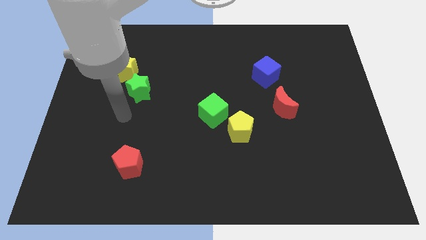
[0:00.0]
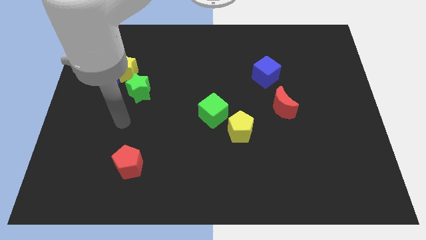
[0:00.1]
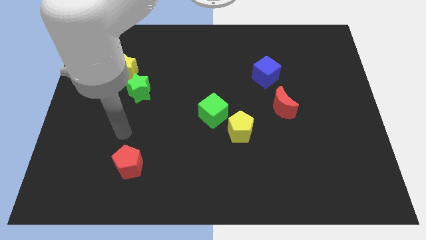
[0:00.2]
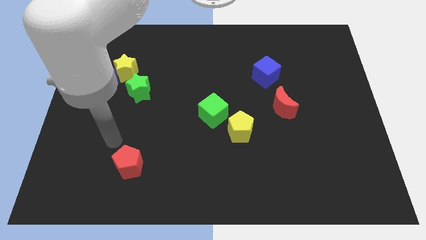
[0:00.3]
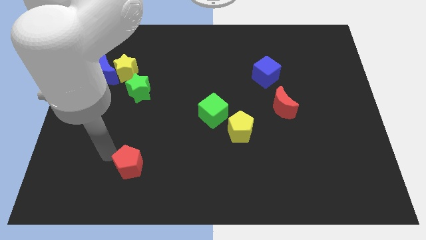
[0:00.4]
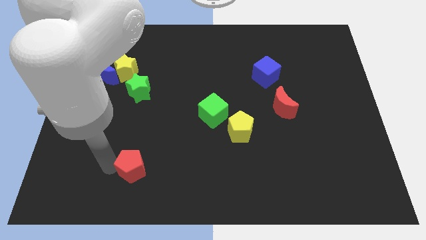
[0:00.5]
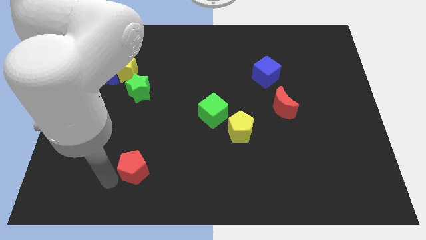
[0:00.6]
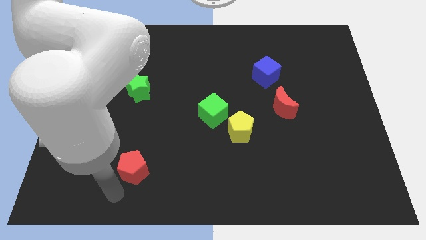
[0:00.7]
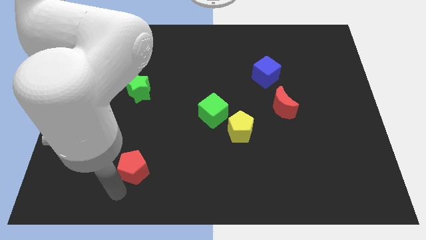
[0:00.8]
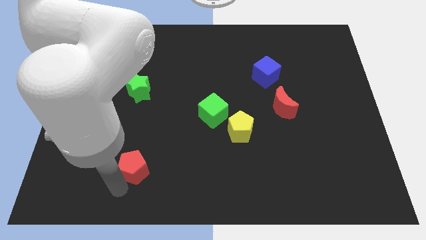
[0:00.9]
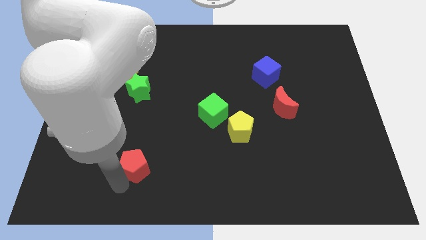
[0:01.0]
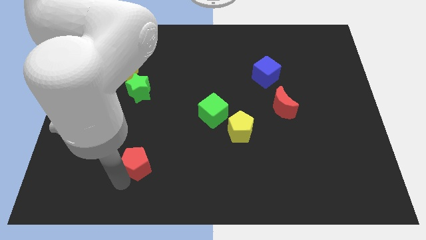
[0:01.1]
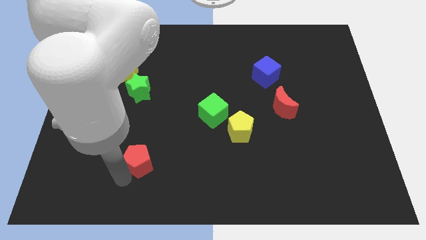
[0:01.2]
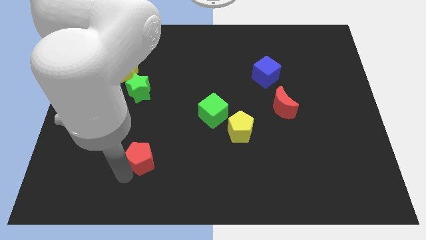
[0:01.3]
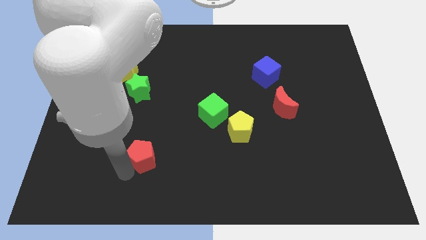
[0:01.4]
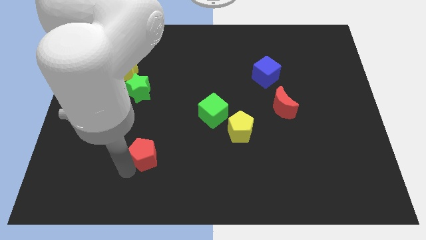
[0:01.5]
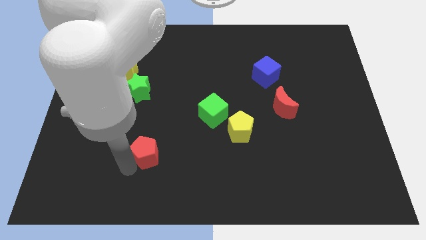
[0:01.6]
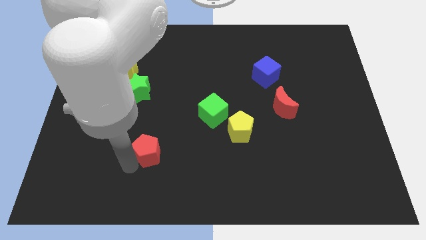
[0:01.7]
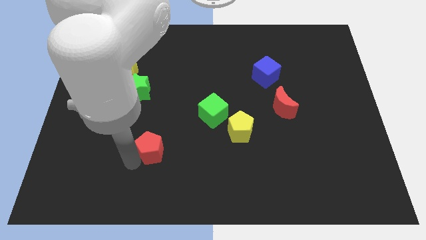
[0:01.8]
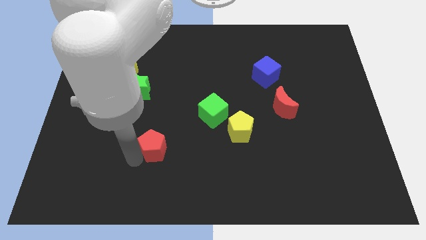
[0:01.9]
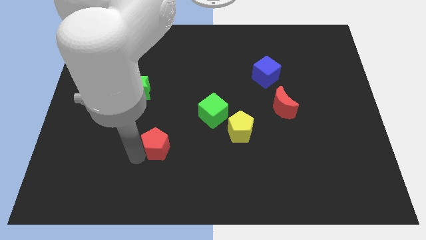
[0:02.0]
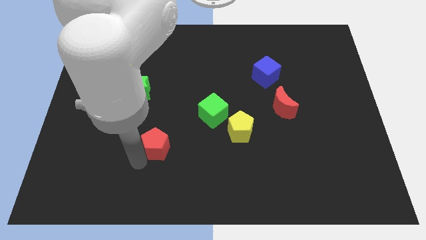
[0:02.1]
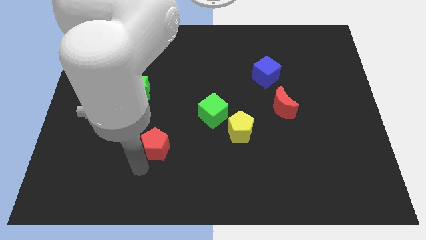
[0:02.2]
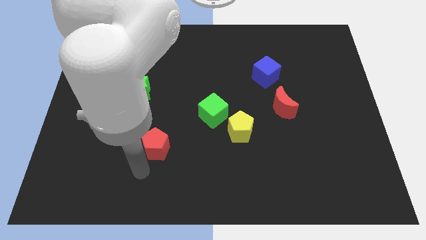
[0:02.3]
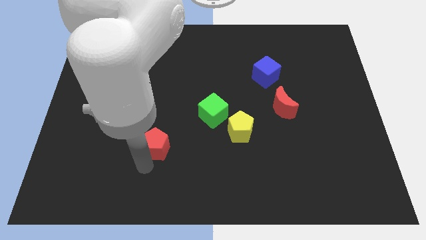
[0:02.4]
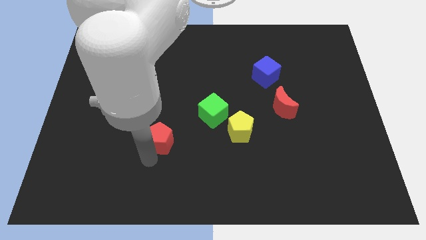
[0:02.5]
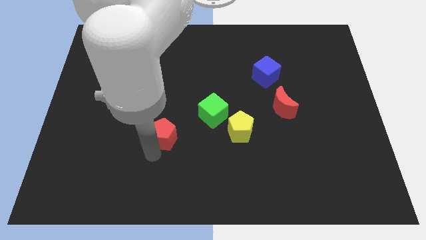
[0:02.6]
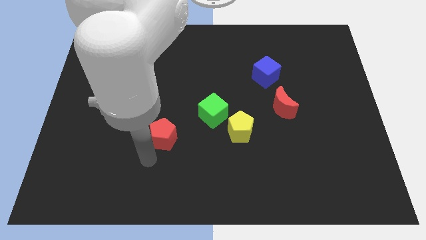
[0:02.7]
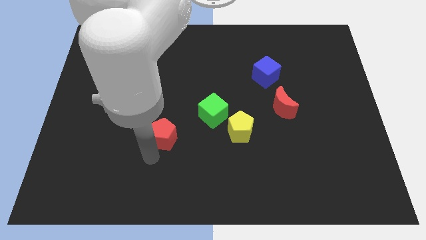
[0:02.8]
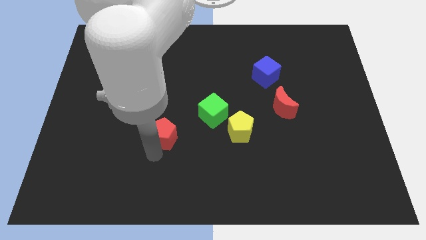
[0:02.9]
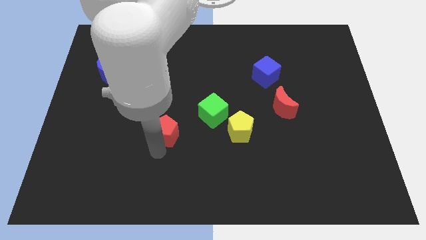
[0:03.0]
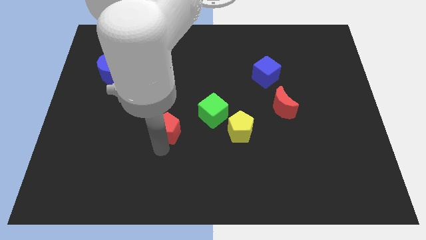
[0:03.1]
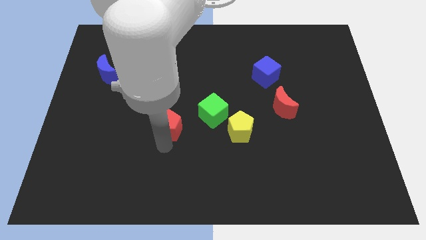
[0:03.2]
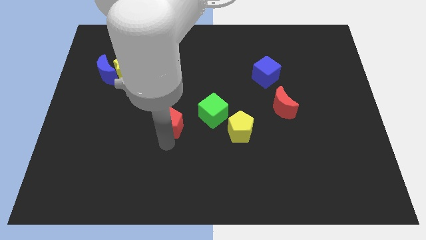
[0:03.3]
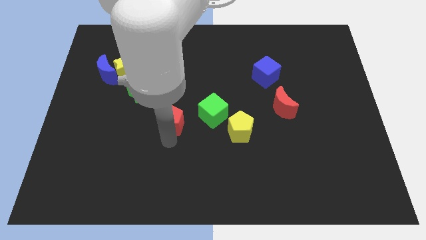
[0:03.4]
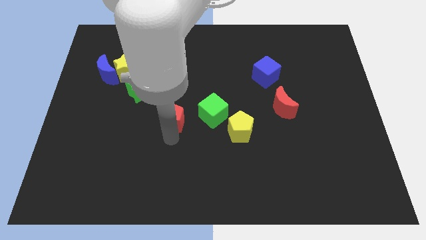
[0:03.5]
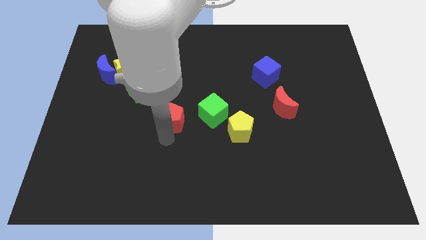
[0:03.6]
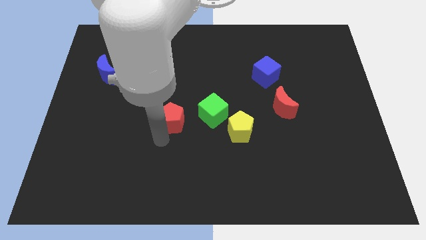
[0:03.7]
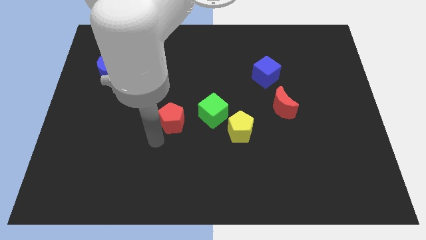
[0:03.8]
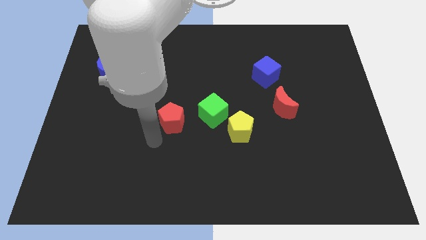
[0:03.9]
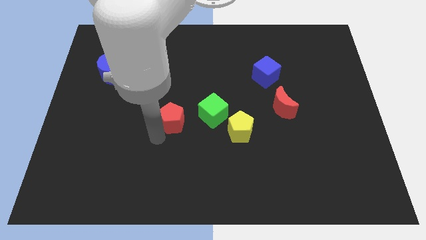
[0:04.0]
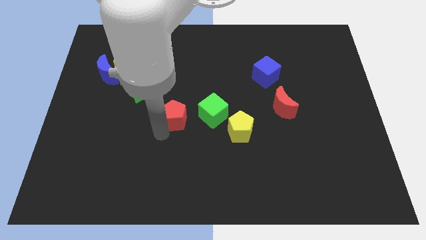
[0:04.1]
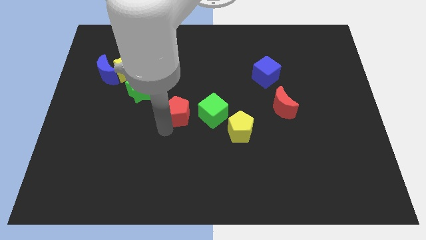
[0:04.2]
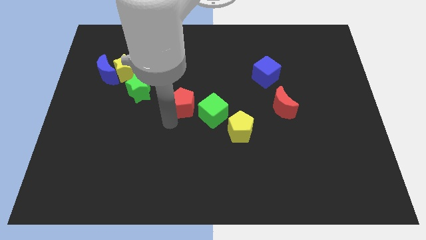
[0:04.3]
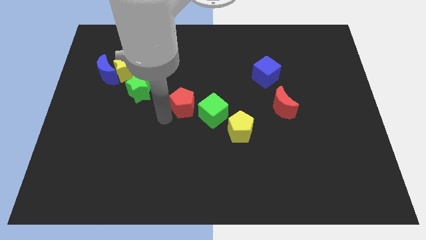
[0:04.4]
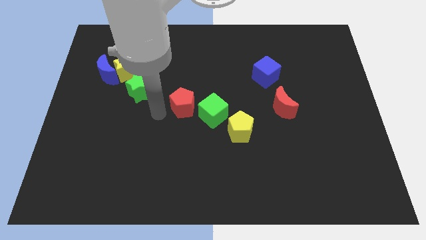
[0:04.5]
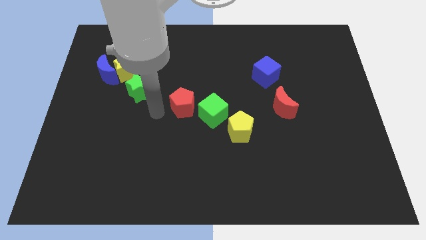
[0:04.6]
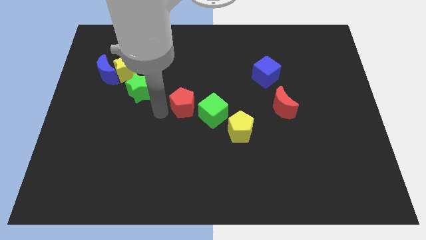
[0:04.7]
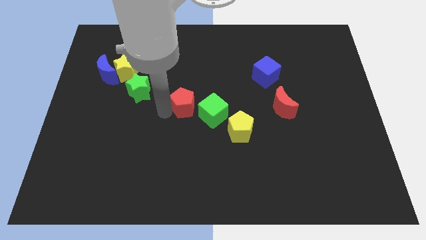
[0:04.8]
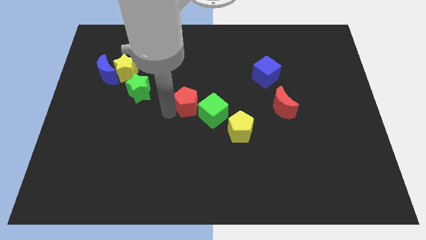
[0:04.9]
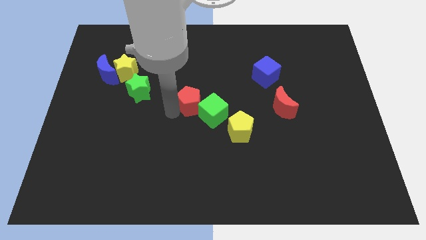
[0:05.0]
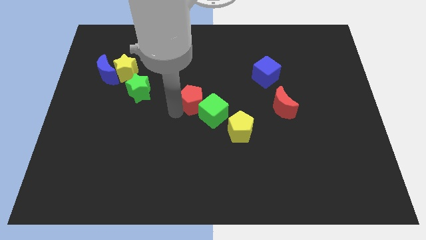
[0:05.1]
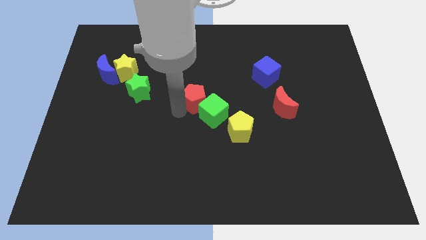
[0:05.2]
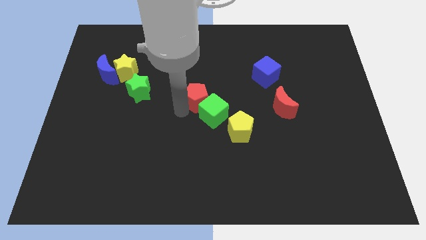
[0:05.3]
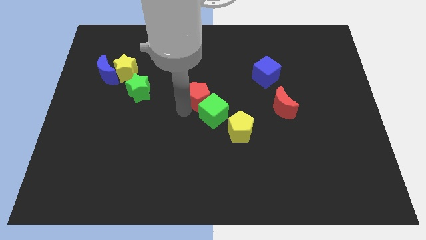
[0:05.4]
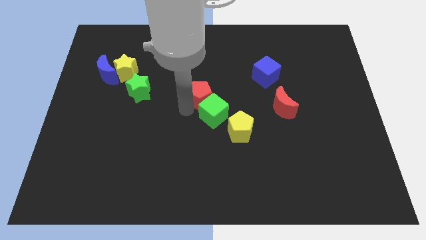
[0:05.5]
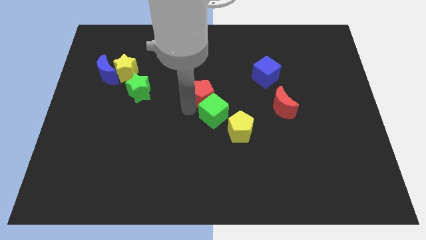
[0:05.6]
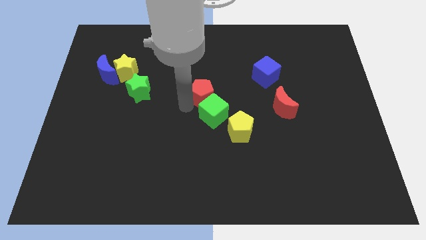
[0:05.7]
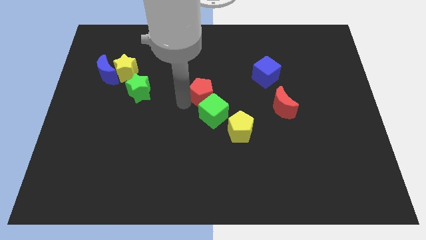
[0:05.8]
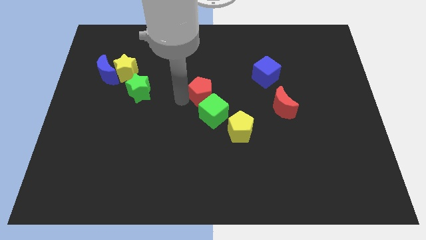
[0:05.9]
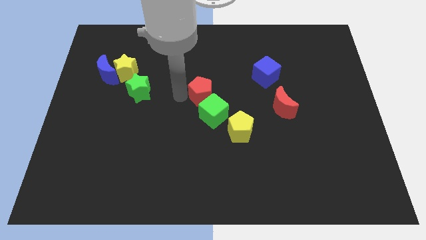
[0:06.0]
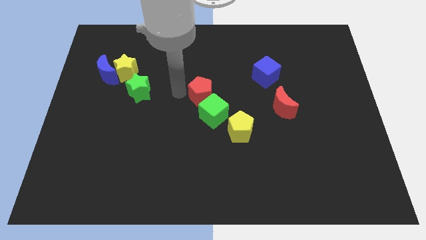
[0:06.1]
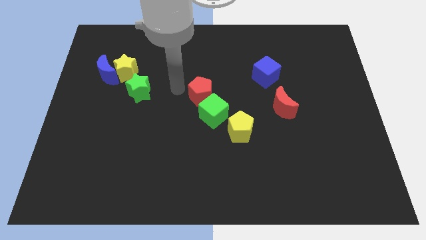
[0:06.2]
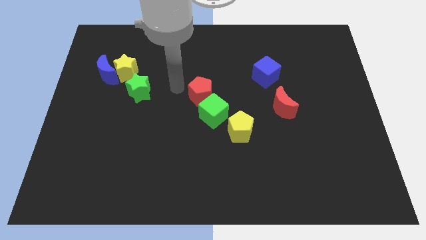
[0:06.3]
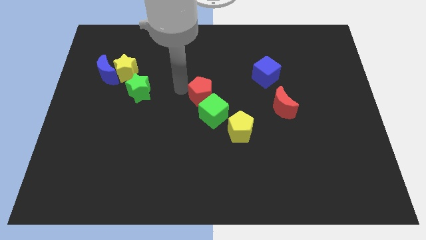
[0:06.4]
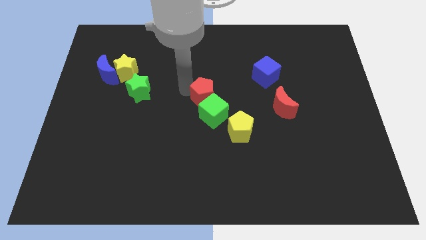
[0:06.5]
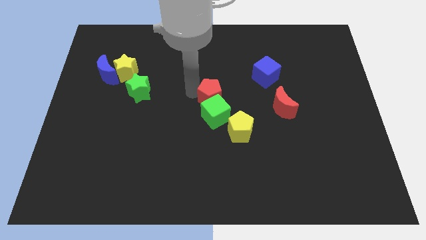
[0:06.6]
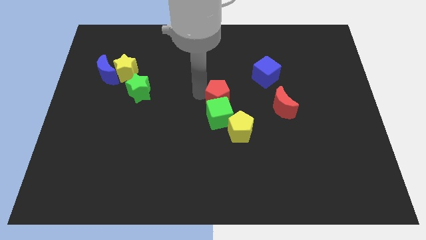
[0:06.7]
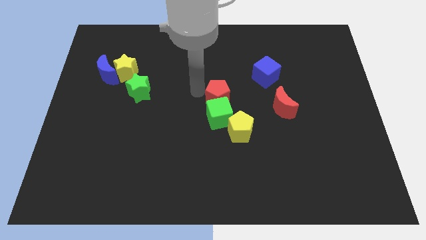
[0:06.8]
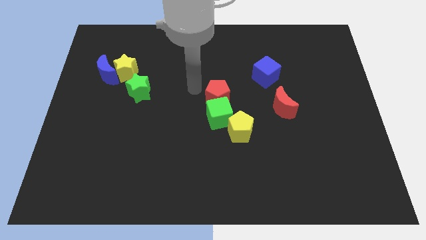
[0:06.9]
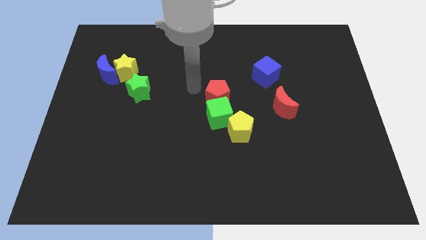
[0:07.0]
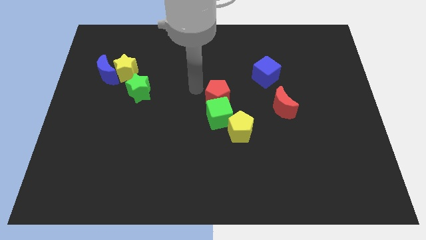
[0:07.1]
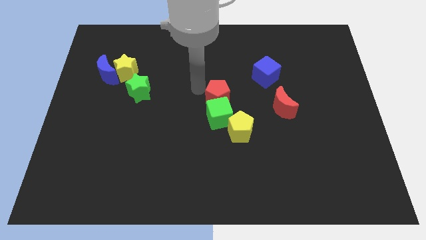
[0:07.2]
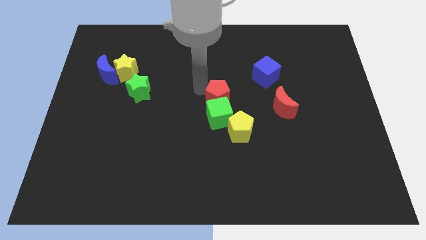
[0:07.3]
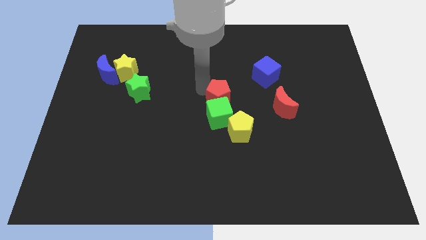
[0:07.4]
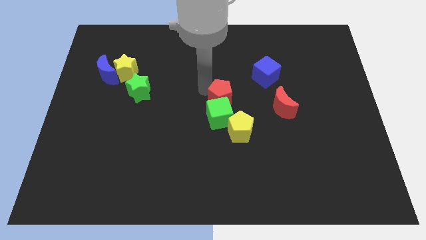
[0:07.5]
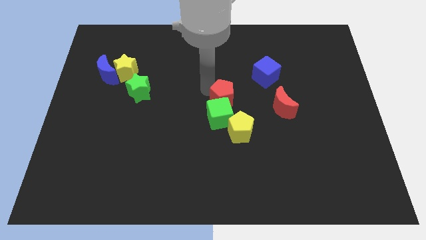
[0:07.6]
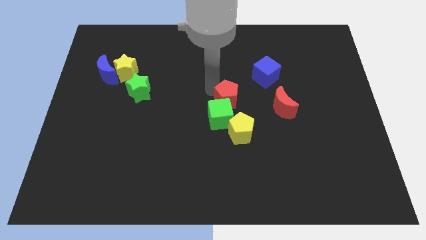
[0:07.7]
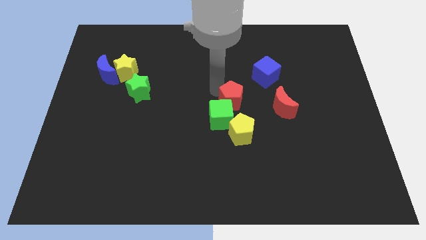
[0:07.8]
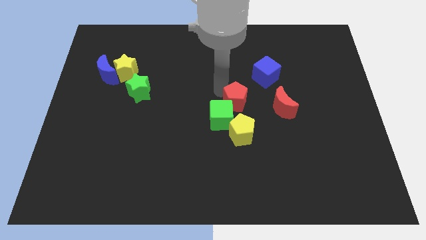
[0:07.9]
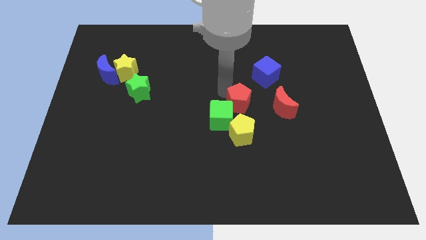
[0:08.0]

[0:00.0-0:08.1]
move the red pentagon to the right side of the green cube
